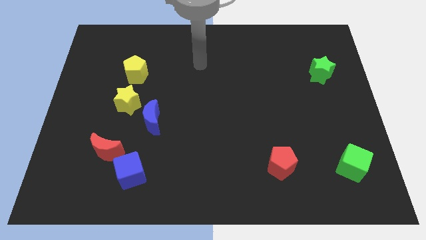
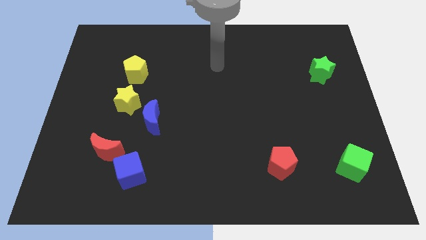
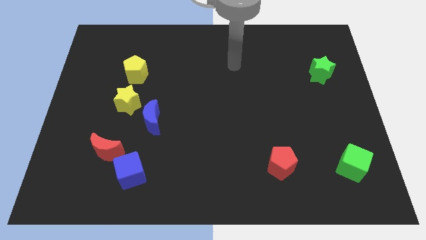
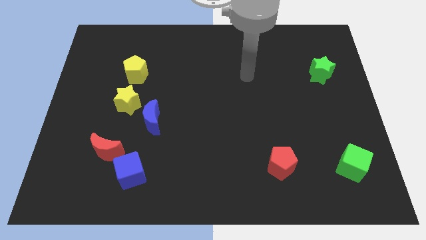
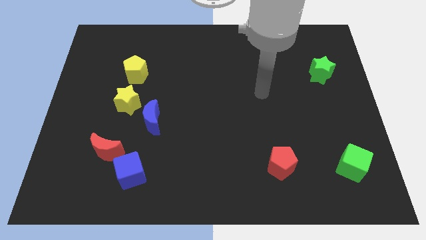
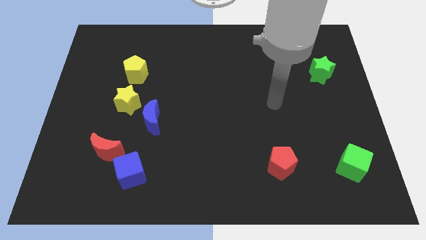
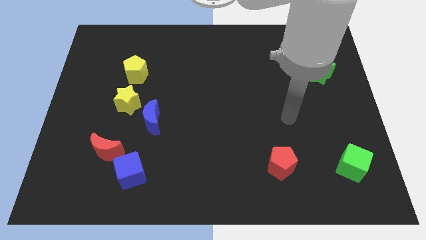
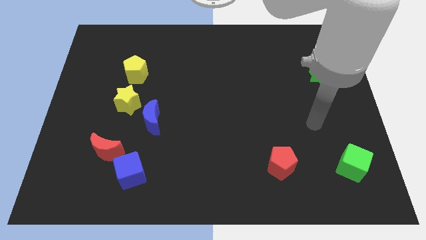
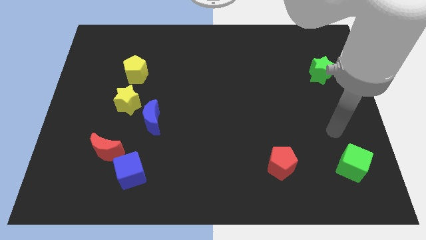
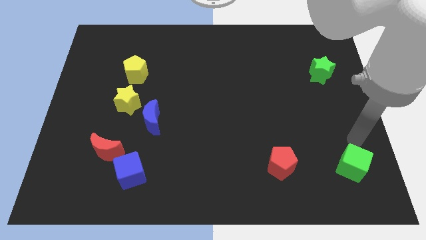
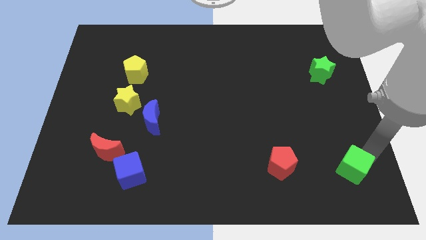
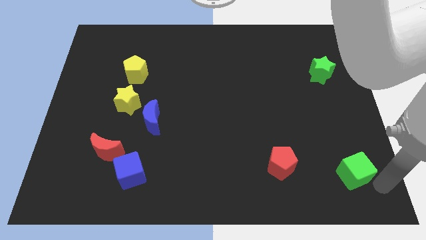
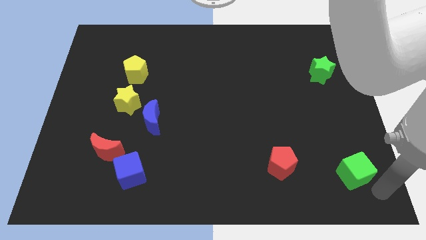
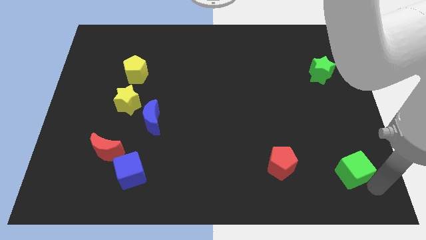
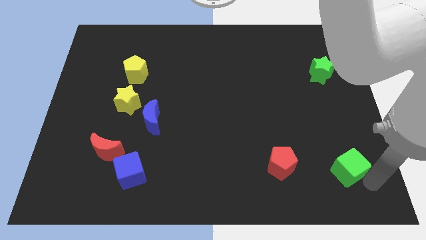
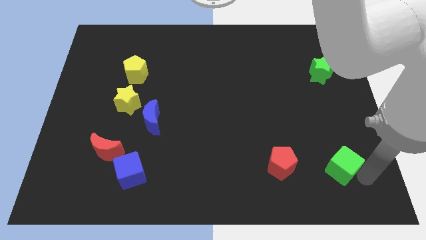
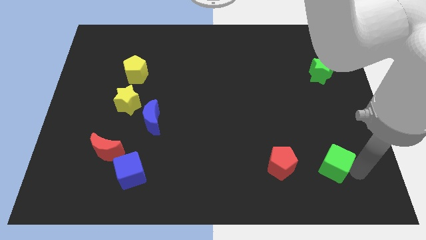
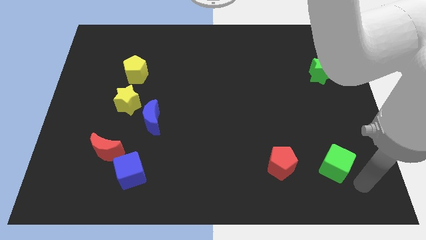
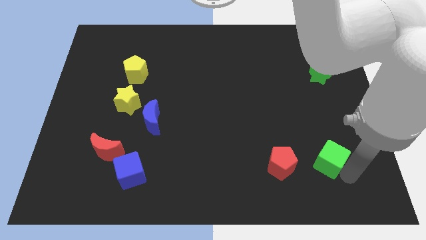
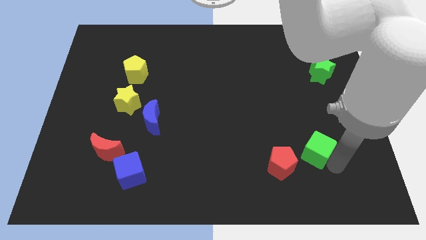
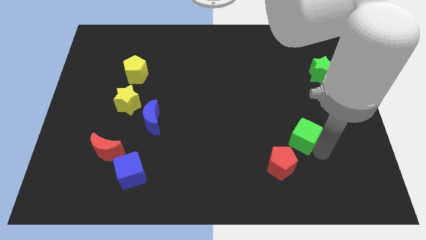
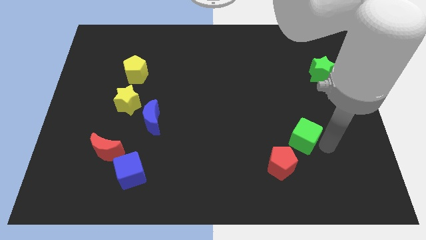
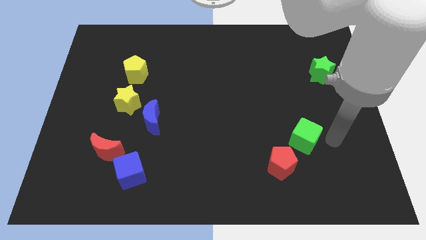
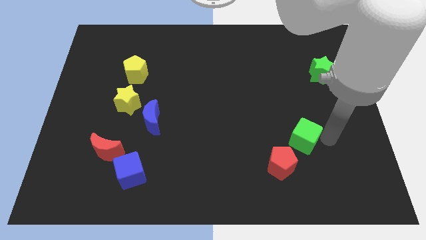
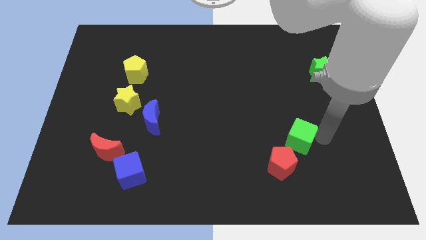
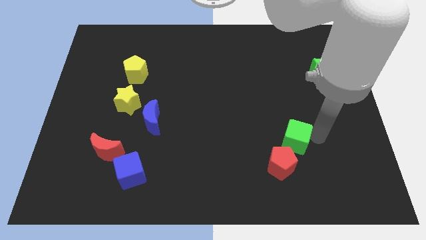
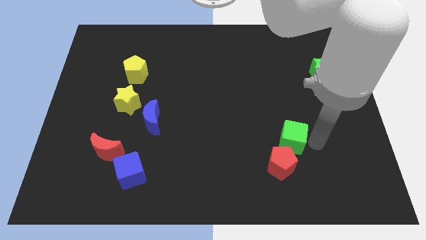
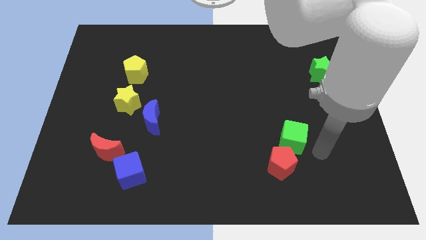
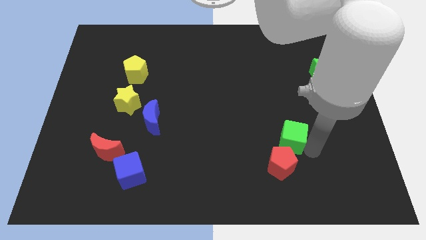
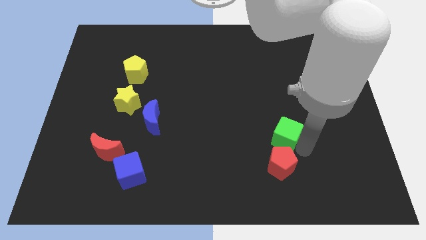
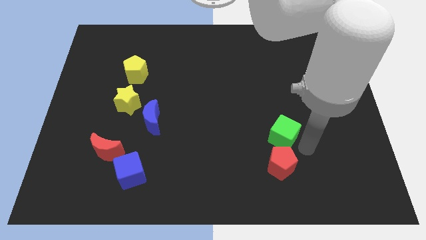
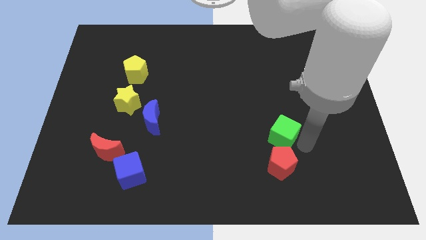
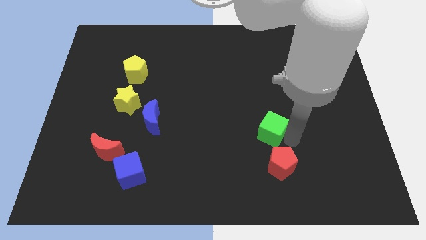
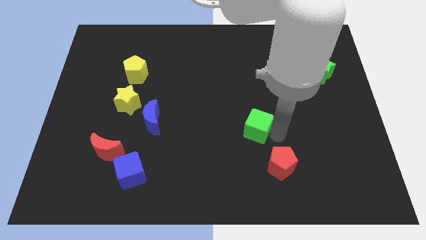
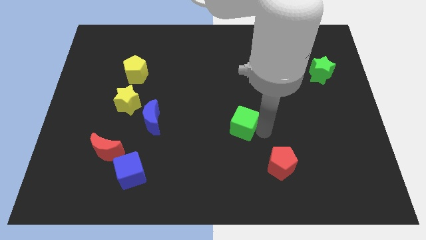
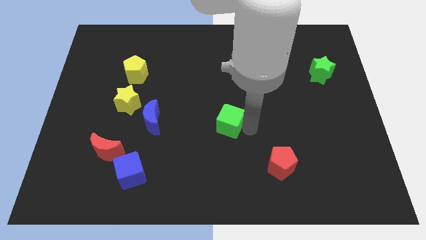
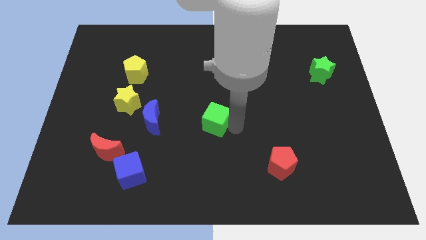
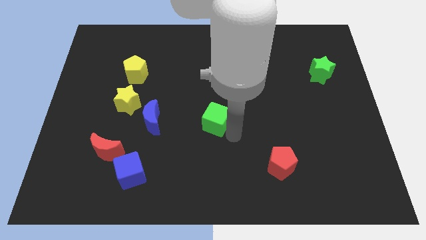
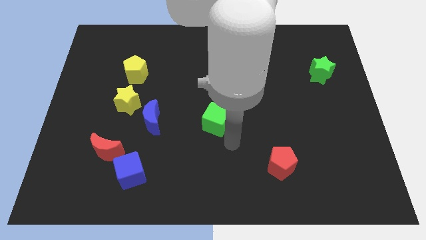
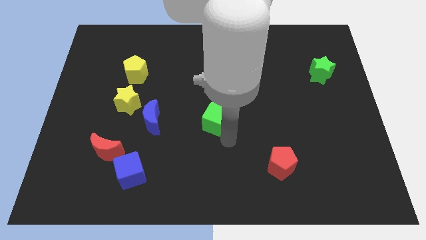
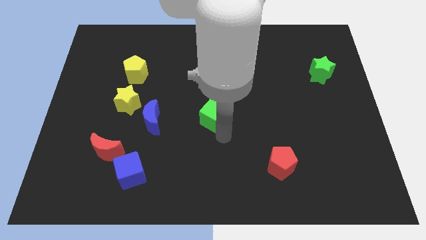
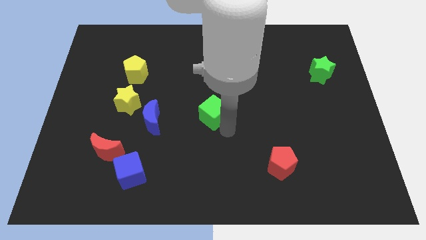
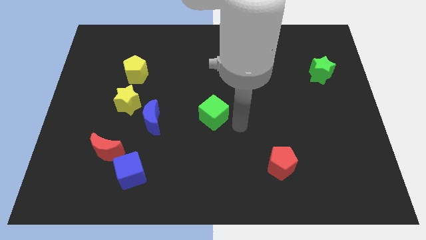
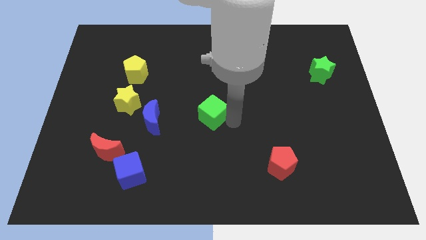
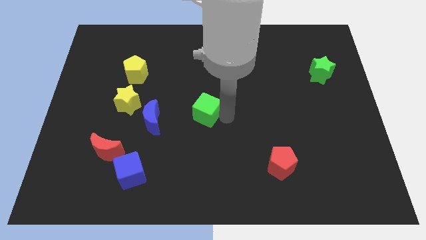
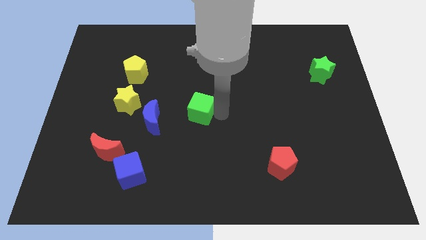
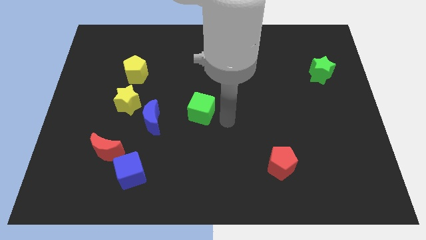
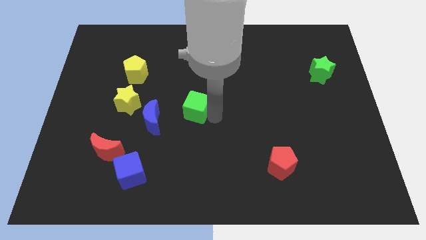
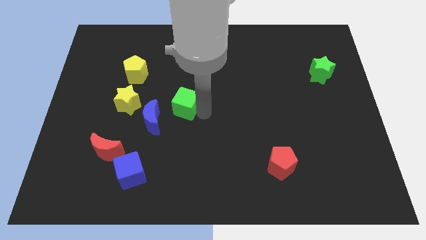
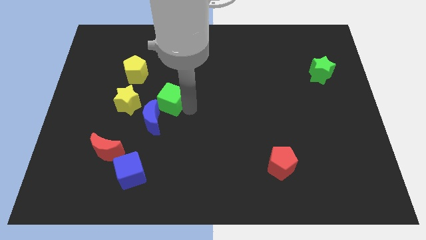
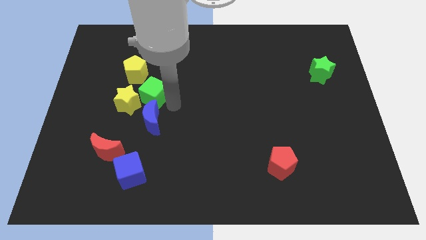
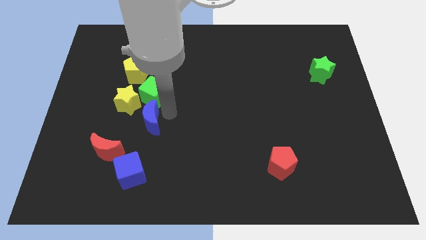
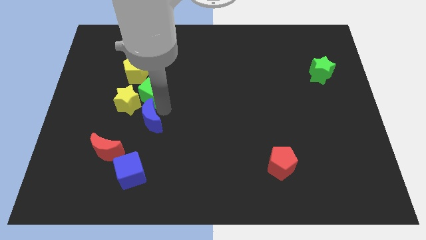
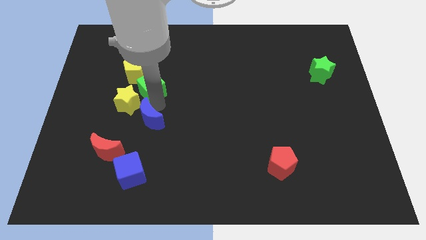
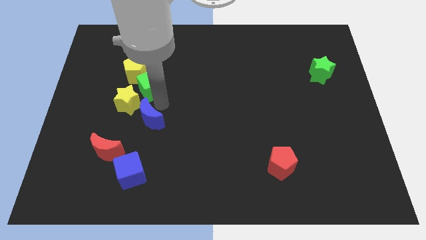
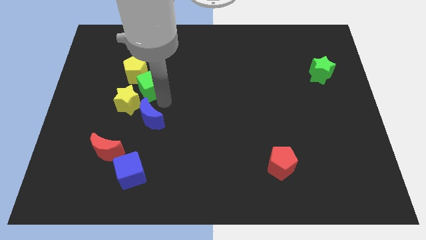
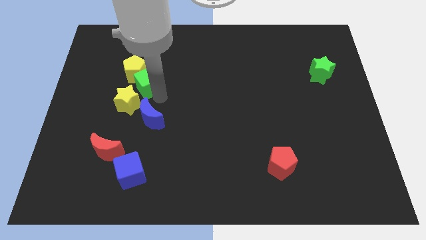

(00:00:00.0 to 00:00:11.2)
slide the green cube to the yellow pentagon

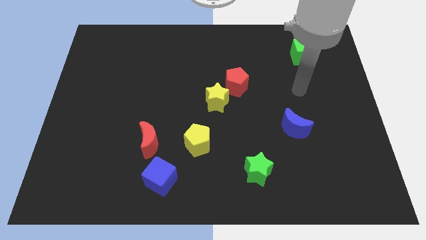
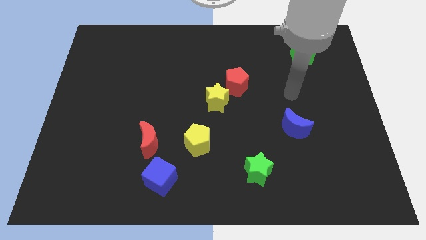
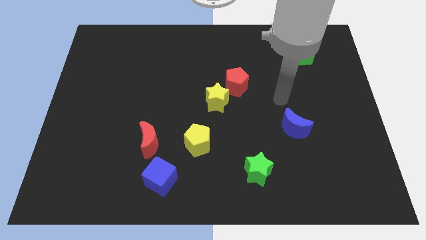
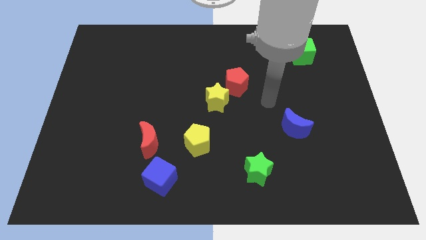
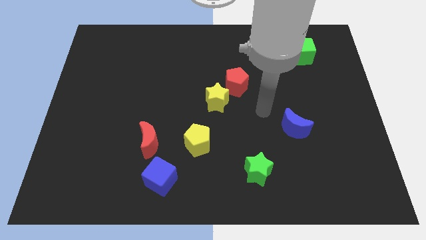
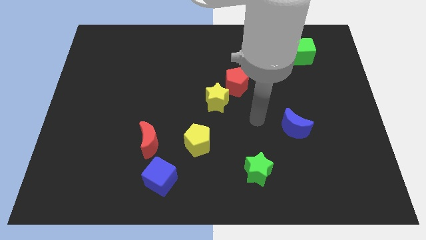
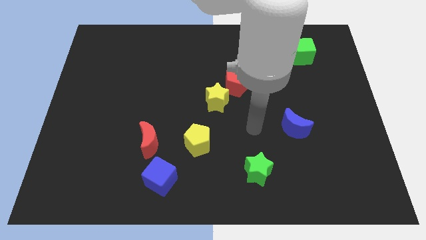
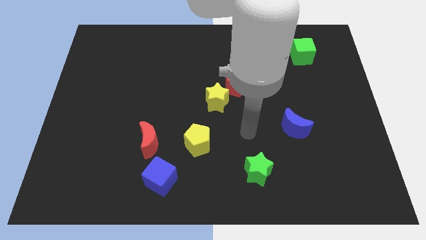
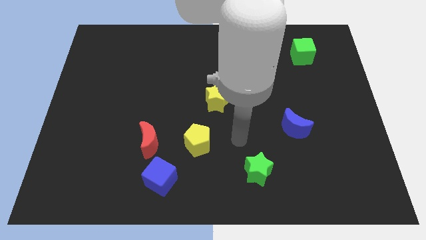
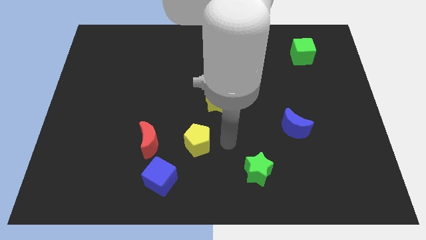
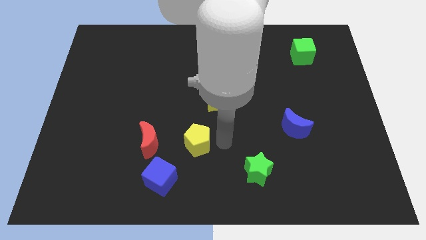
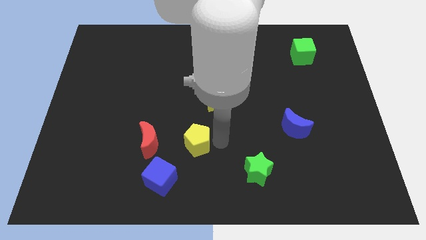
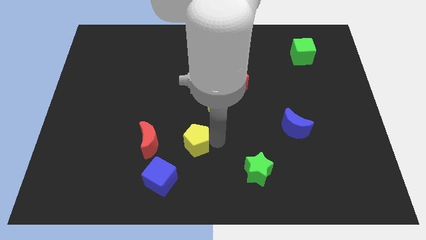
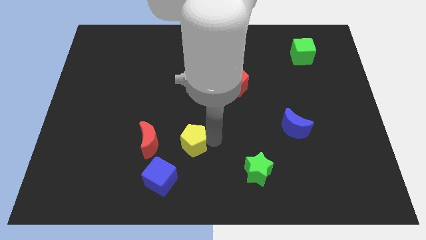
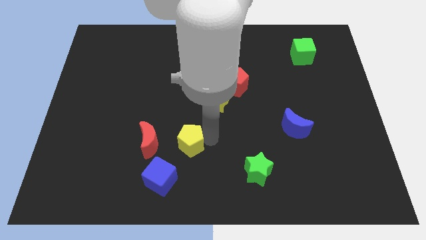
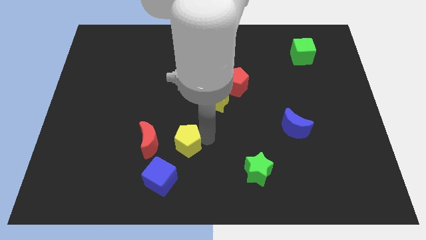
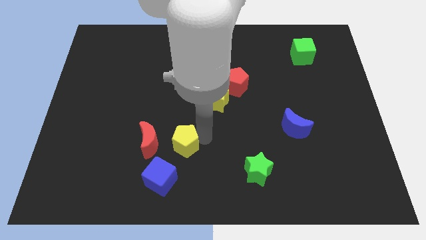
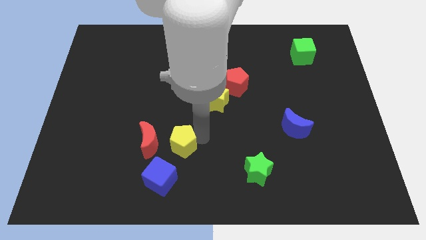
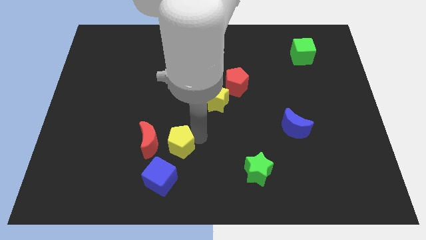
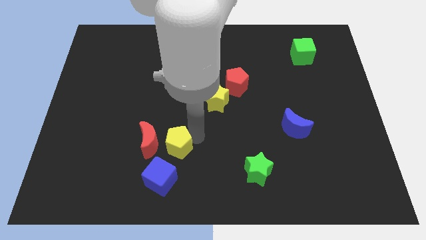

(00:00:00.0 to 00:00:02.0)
push the yellow pentagon close to the red moon
